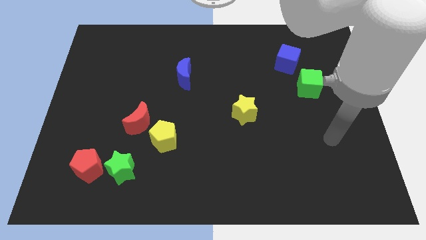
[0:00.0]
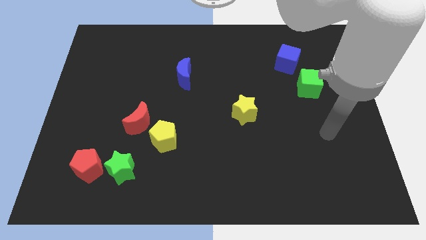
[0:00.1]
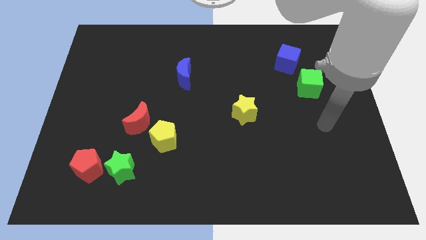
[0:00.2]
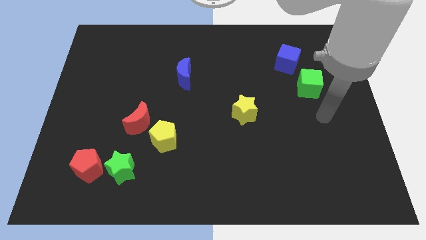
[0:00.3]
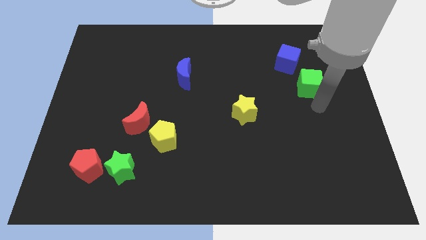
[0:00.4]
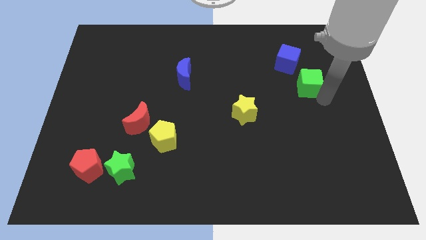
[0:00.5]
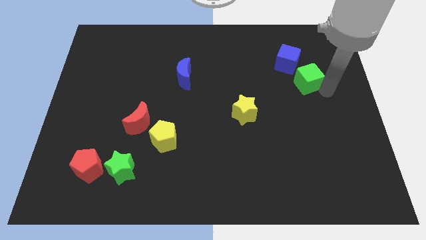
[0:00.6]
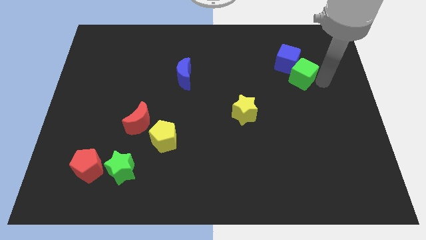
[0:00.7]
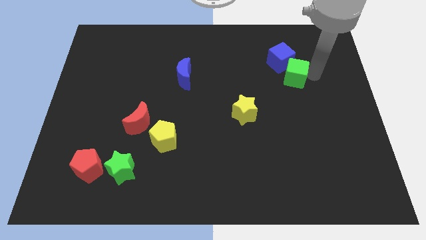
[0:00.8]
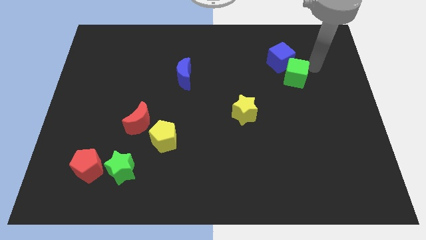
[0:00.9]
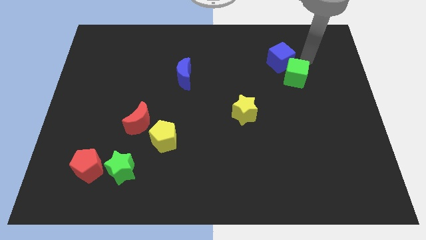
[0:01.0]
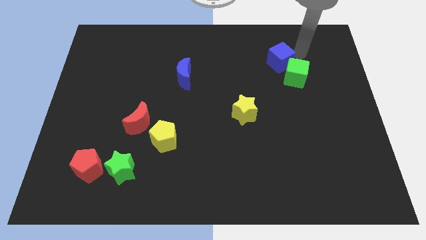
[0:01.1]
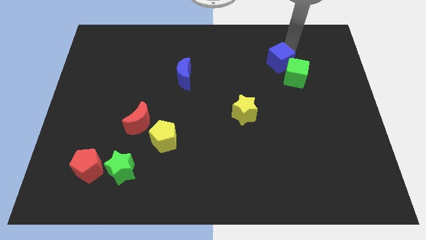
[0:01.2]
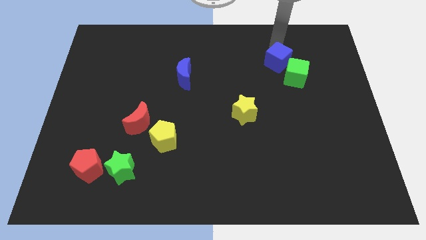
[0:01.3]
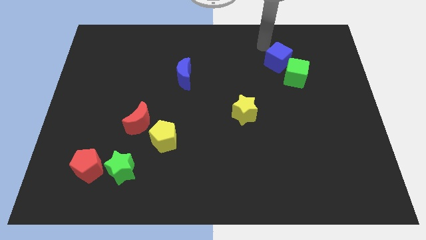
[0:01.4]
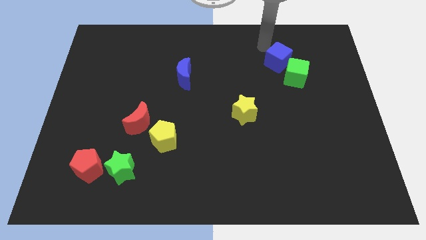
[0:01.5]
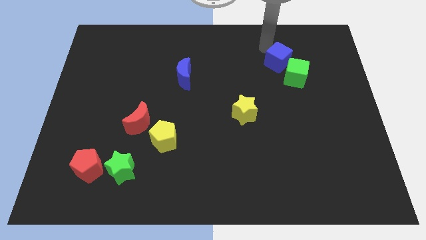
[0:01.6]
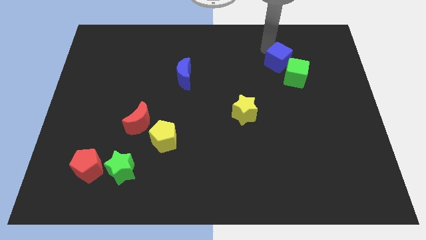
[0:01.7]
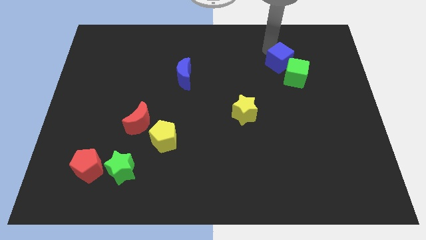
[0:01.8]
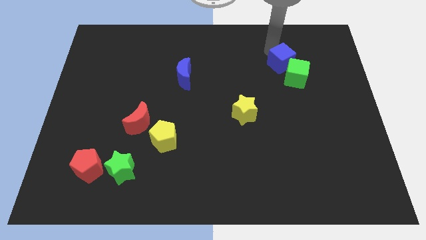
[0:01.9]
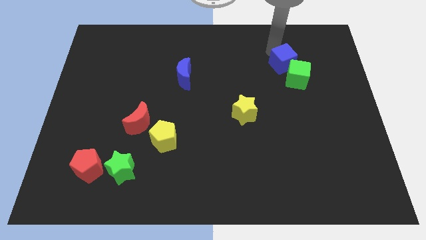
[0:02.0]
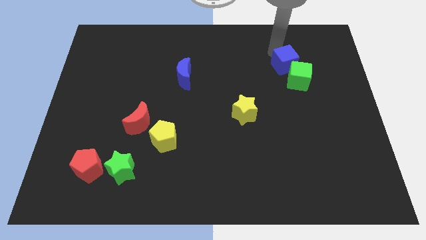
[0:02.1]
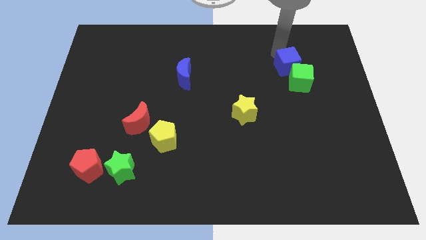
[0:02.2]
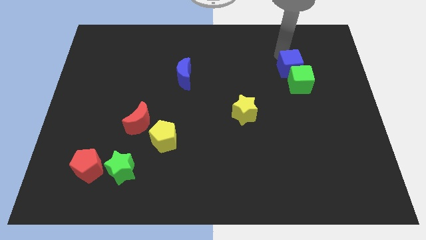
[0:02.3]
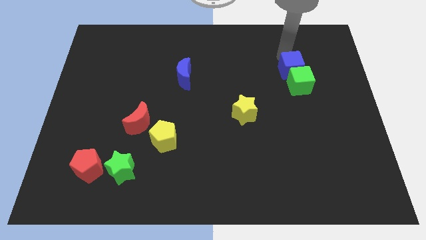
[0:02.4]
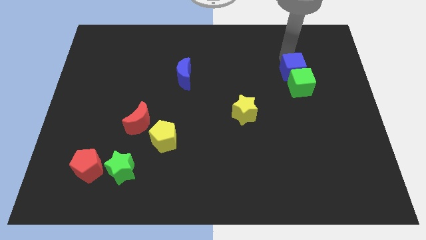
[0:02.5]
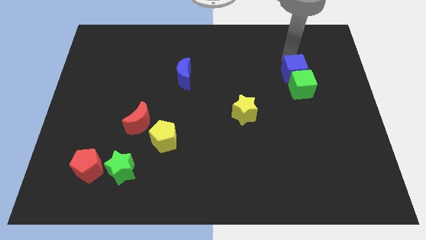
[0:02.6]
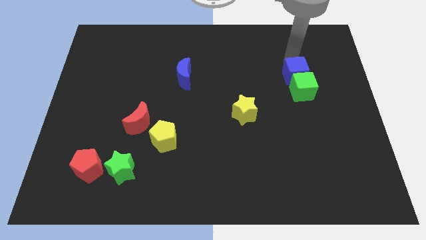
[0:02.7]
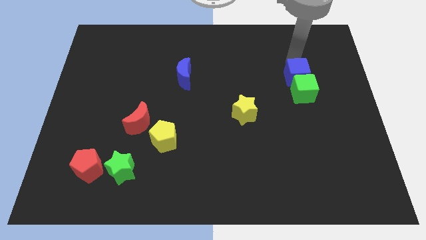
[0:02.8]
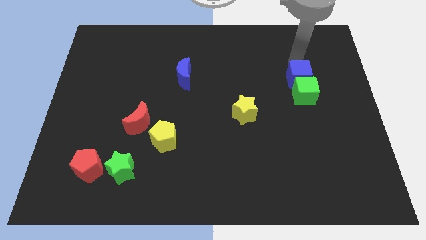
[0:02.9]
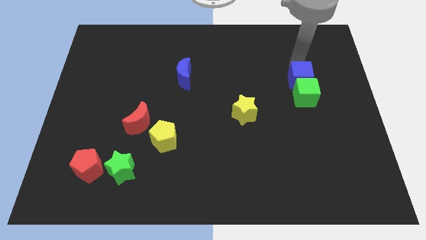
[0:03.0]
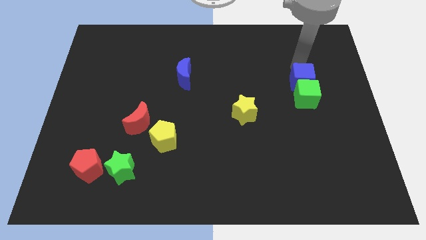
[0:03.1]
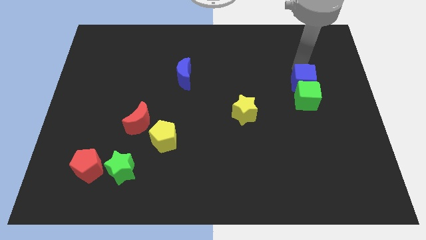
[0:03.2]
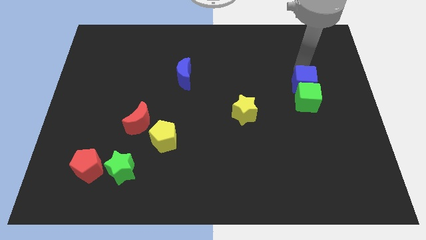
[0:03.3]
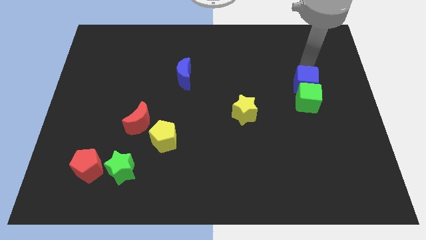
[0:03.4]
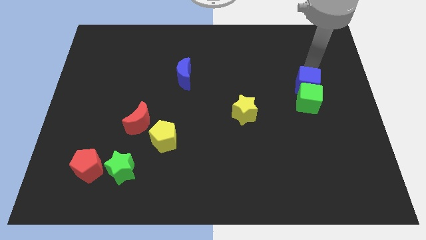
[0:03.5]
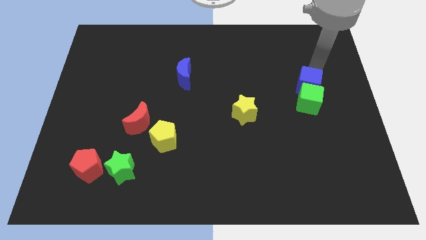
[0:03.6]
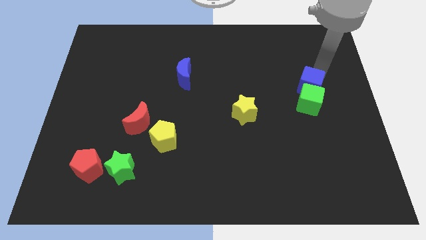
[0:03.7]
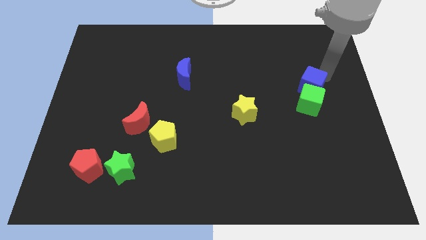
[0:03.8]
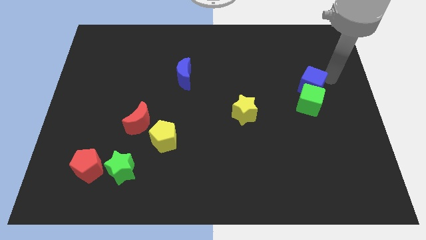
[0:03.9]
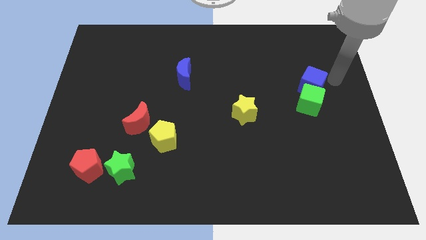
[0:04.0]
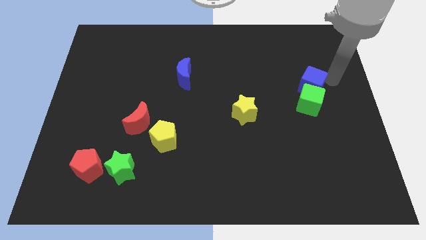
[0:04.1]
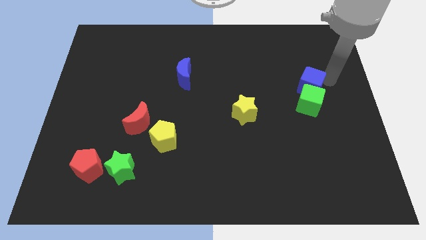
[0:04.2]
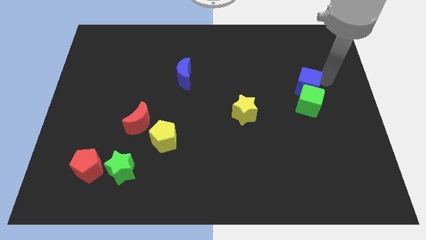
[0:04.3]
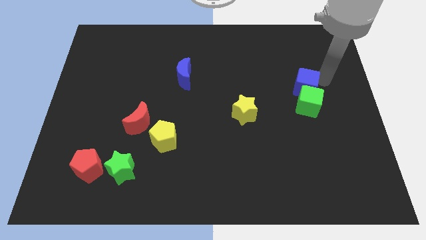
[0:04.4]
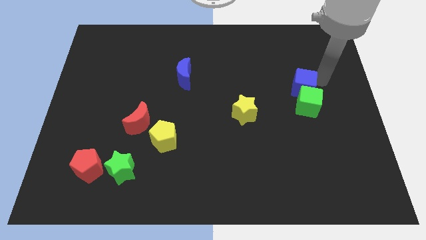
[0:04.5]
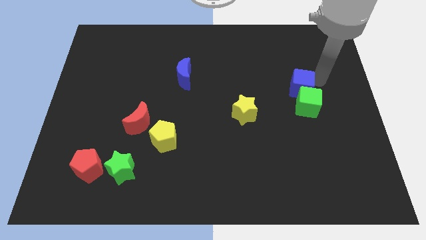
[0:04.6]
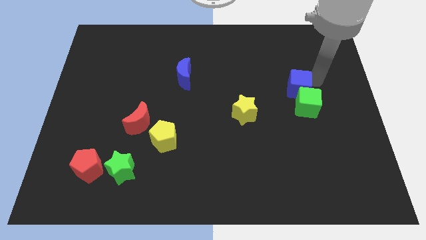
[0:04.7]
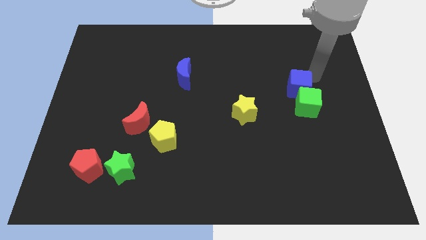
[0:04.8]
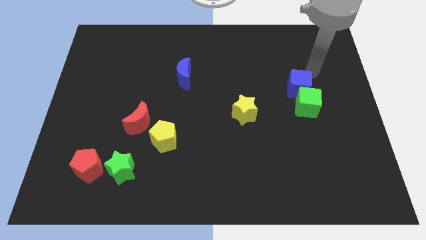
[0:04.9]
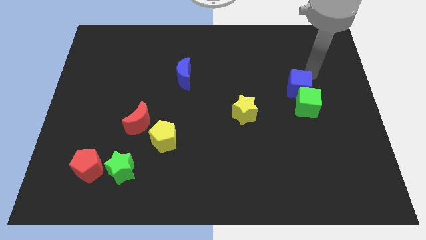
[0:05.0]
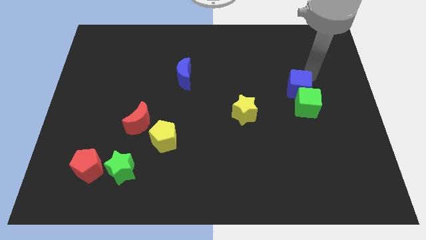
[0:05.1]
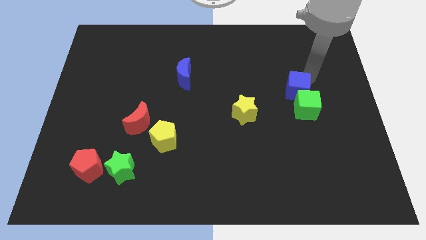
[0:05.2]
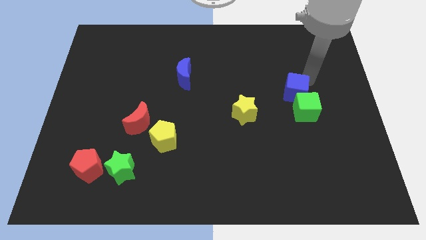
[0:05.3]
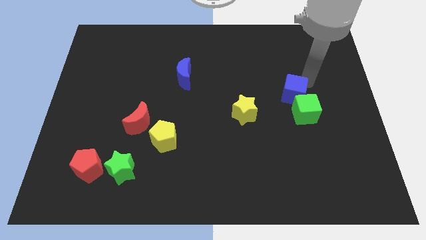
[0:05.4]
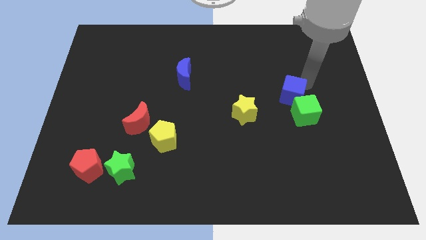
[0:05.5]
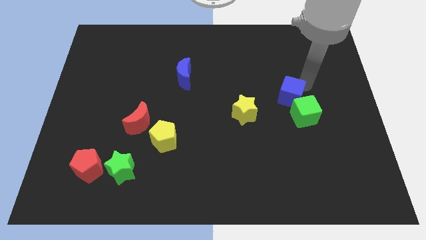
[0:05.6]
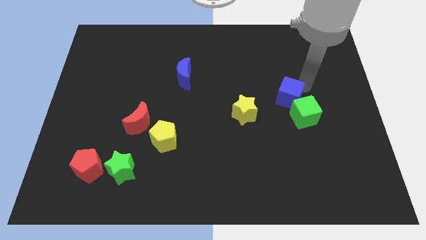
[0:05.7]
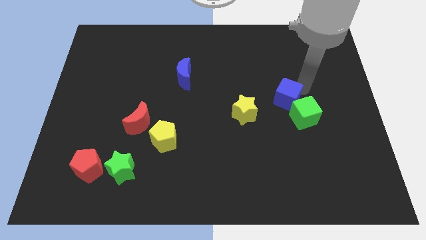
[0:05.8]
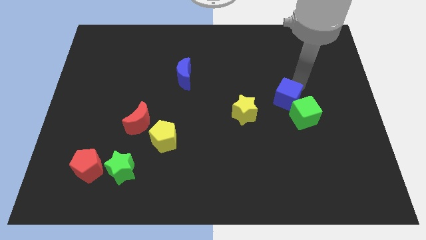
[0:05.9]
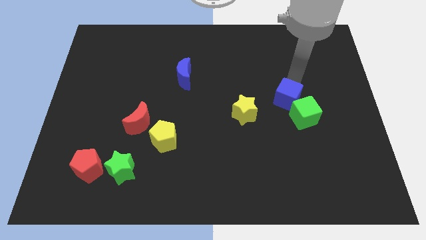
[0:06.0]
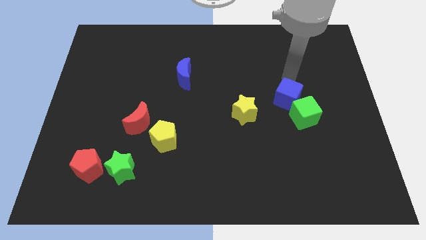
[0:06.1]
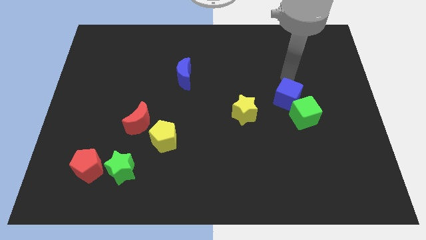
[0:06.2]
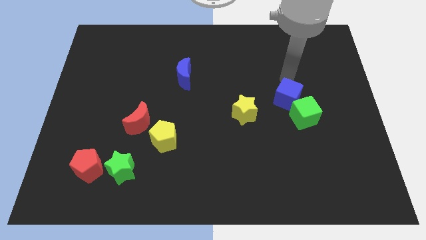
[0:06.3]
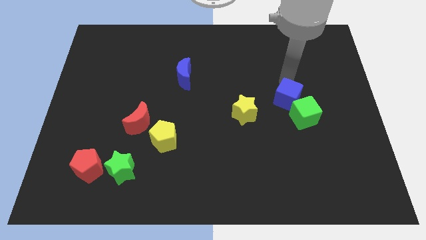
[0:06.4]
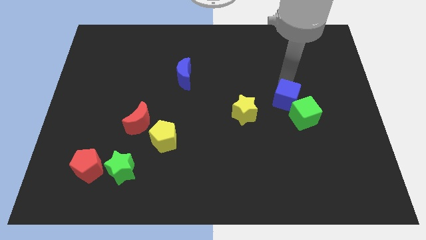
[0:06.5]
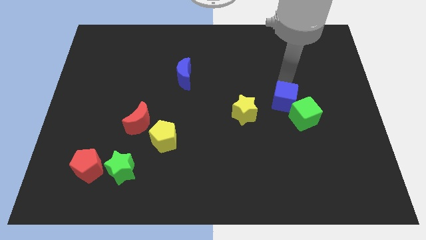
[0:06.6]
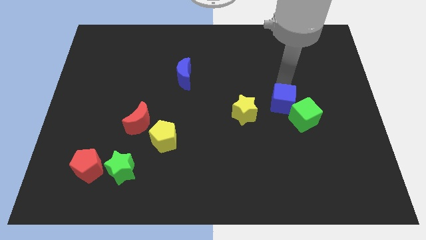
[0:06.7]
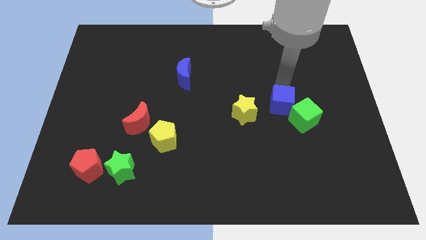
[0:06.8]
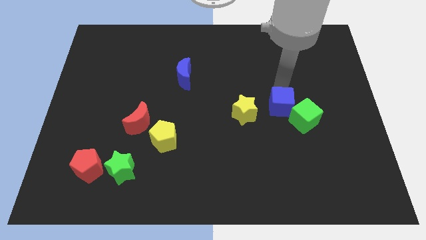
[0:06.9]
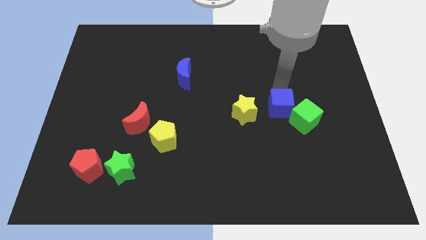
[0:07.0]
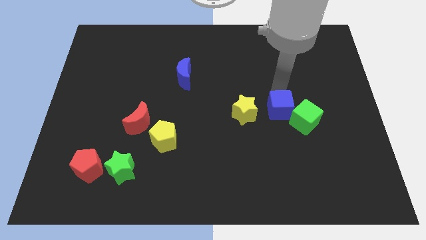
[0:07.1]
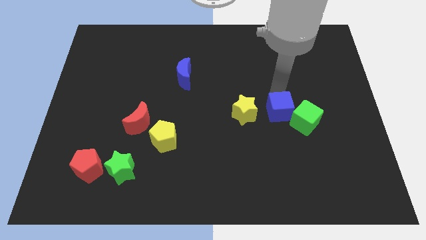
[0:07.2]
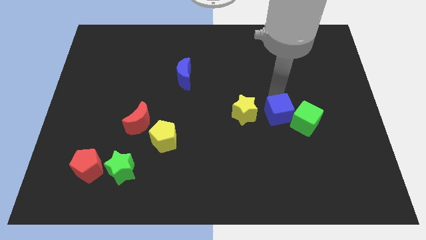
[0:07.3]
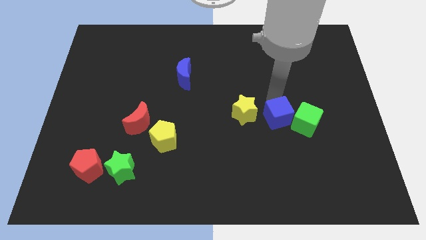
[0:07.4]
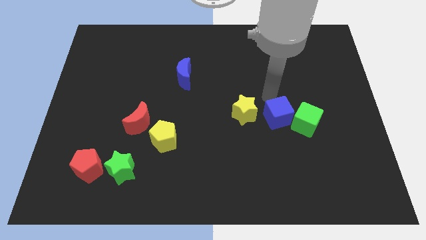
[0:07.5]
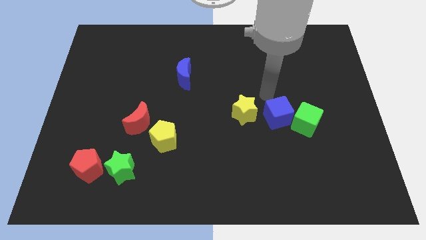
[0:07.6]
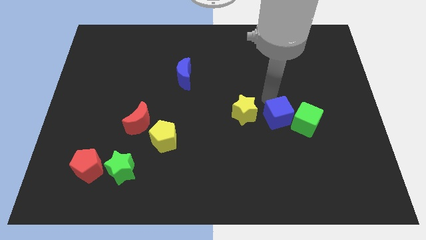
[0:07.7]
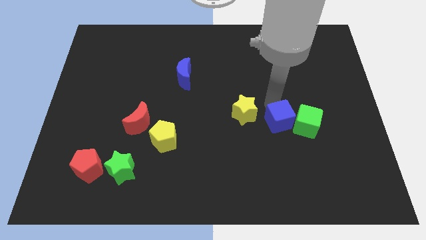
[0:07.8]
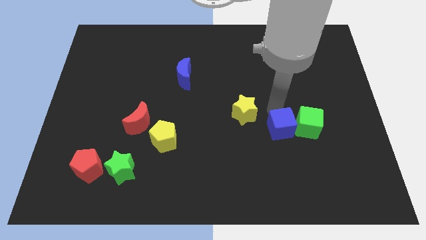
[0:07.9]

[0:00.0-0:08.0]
move the blue cube down
